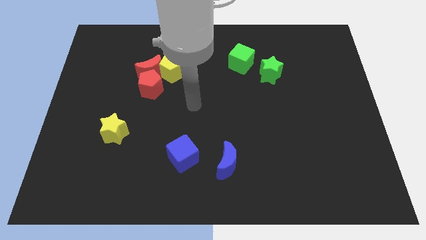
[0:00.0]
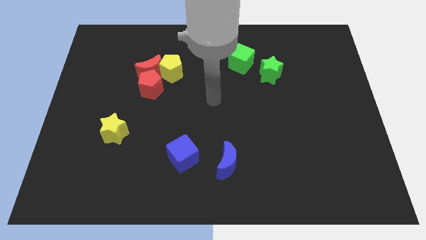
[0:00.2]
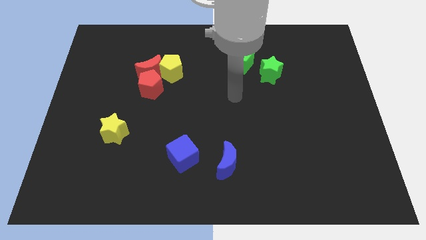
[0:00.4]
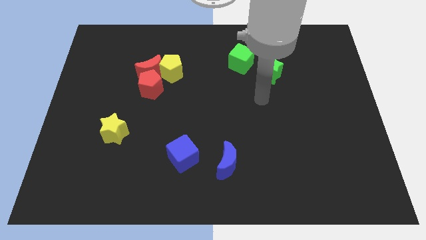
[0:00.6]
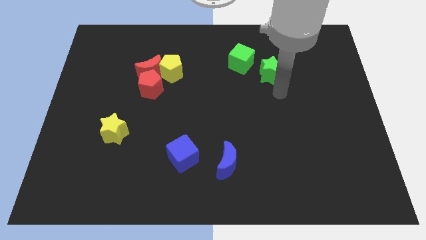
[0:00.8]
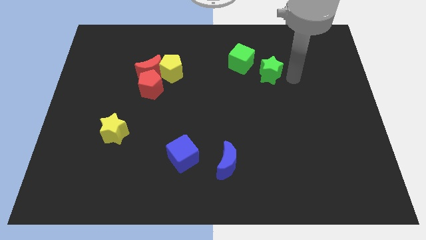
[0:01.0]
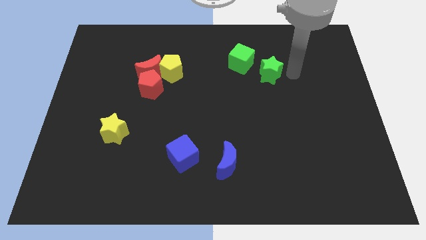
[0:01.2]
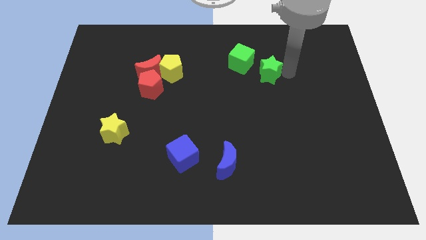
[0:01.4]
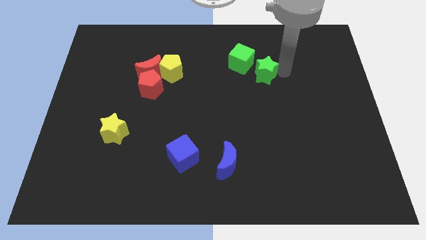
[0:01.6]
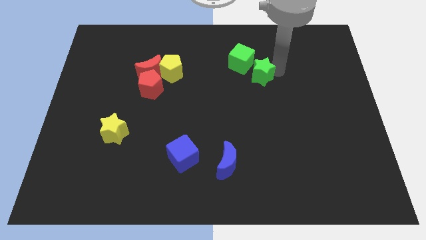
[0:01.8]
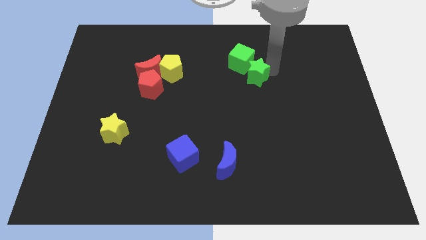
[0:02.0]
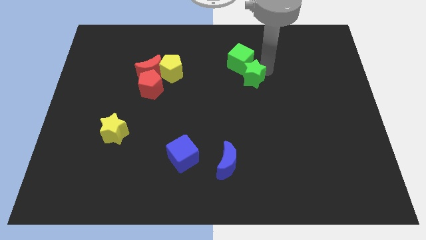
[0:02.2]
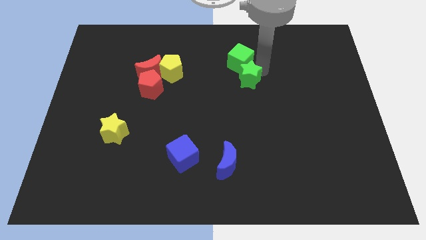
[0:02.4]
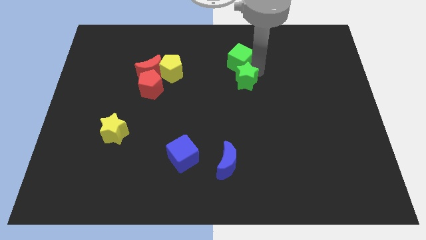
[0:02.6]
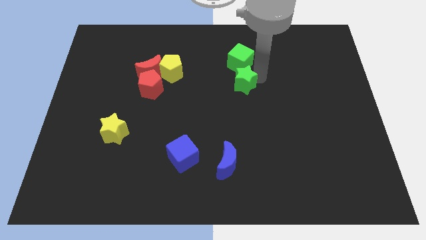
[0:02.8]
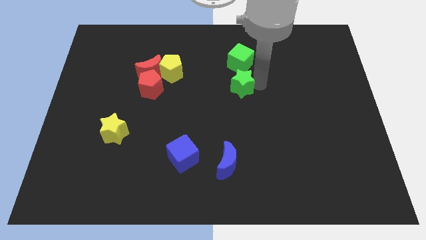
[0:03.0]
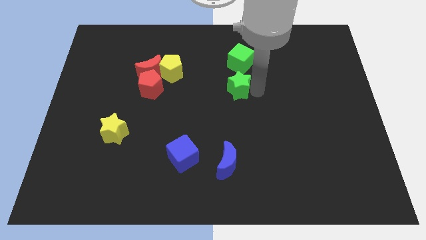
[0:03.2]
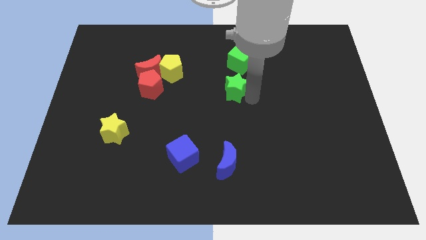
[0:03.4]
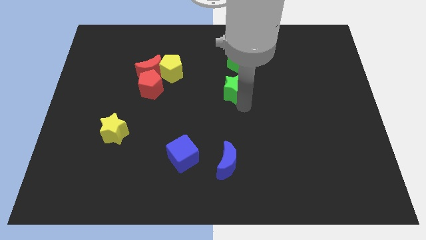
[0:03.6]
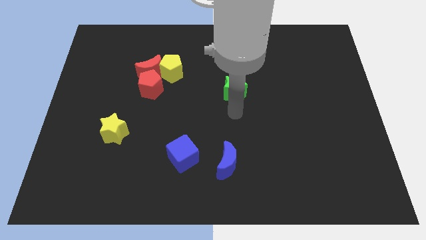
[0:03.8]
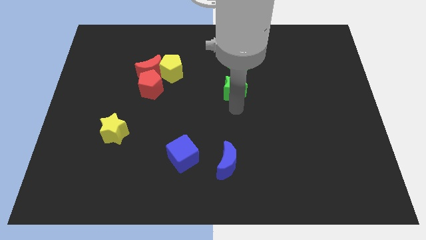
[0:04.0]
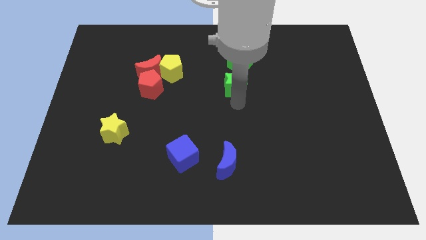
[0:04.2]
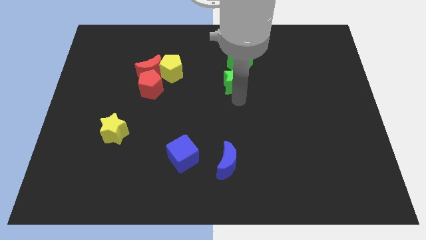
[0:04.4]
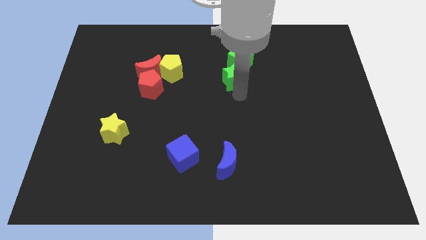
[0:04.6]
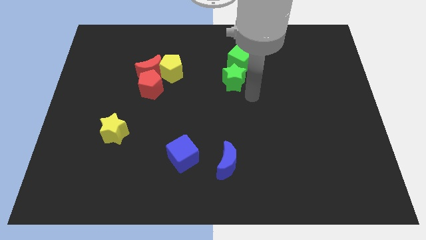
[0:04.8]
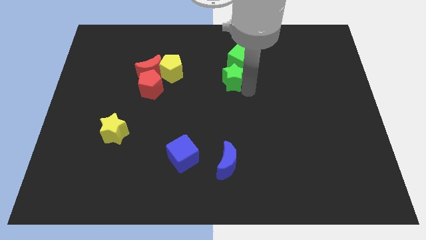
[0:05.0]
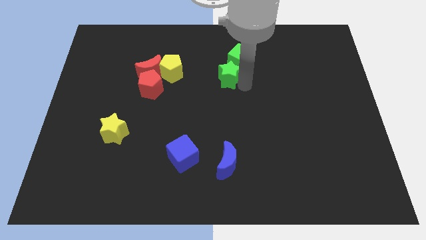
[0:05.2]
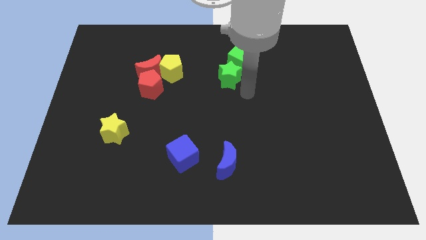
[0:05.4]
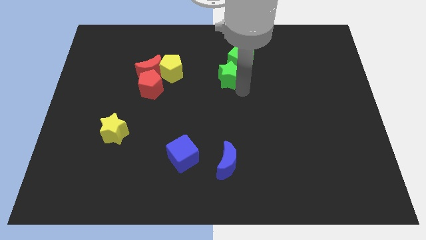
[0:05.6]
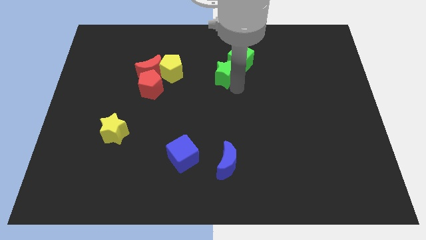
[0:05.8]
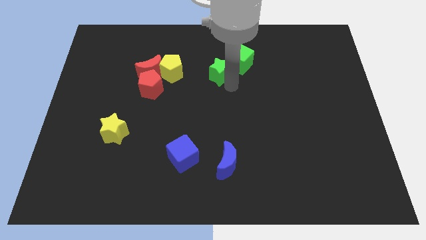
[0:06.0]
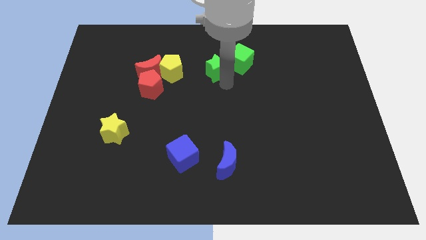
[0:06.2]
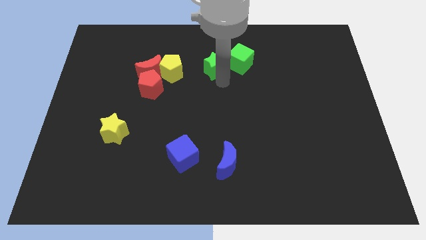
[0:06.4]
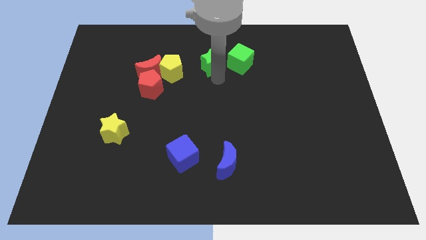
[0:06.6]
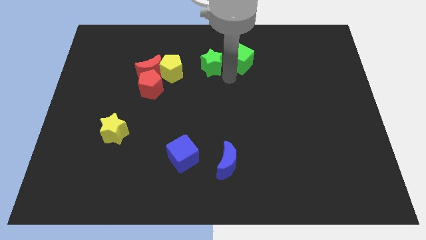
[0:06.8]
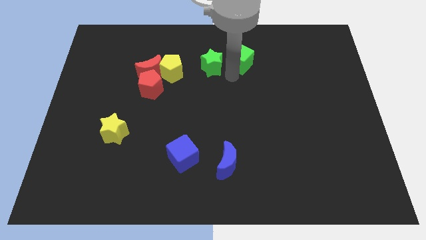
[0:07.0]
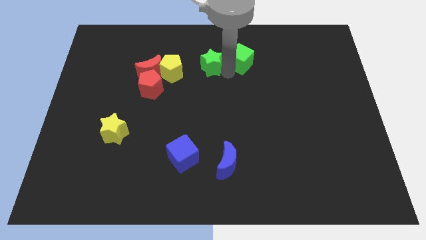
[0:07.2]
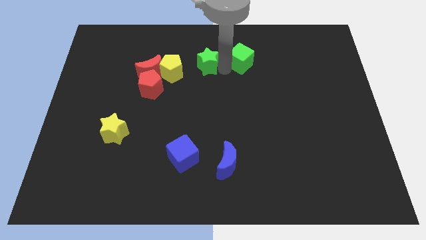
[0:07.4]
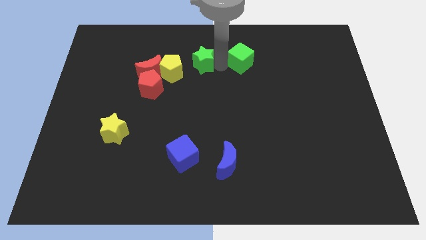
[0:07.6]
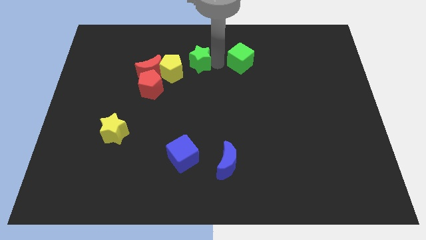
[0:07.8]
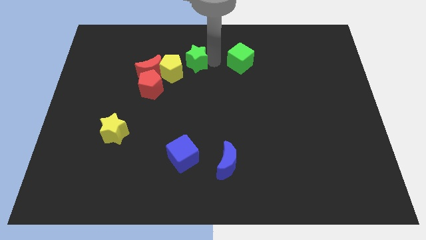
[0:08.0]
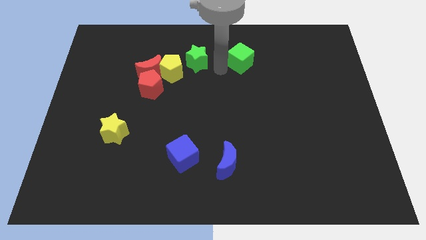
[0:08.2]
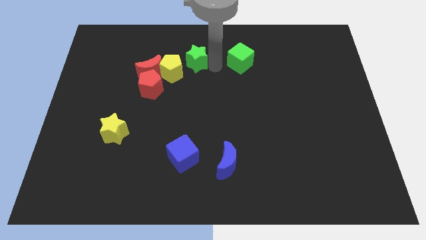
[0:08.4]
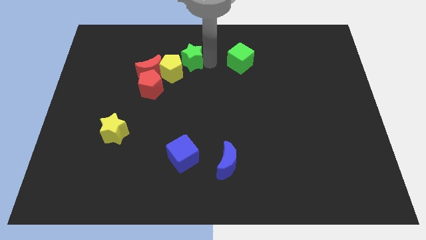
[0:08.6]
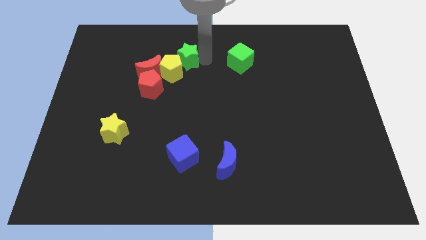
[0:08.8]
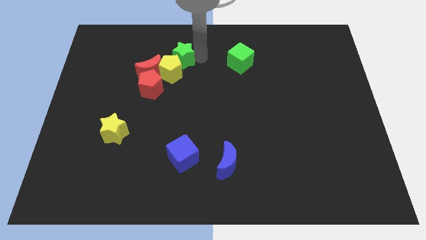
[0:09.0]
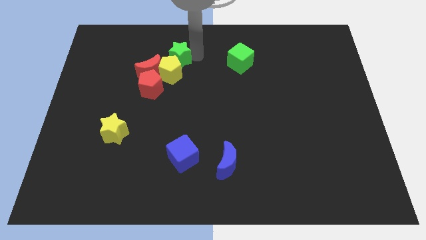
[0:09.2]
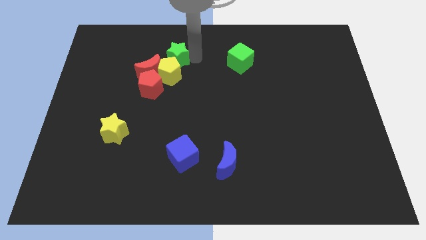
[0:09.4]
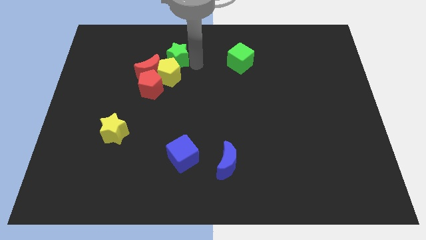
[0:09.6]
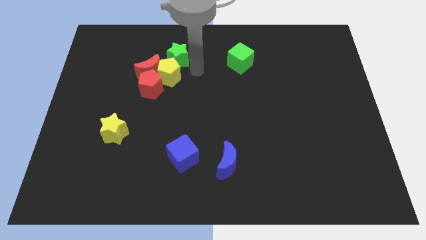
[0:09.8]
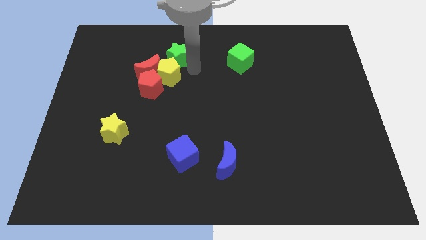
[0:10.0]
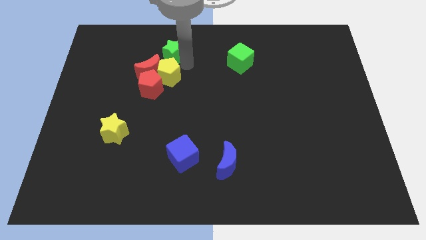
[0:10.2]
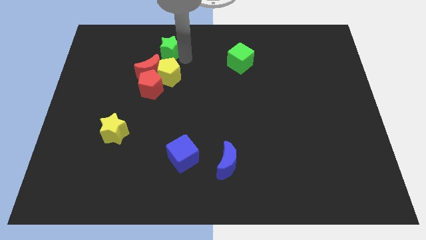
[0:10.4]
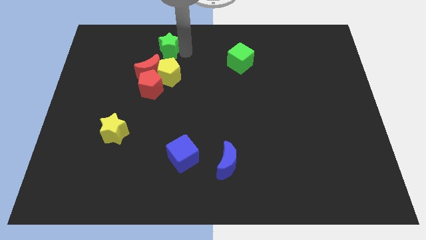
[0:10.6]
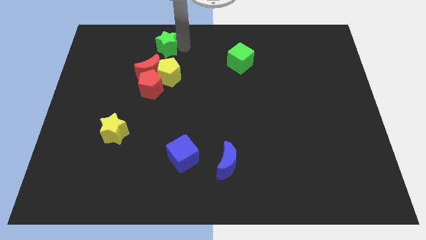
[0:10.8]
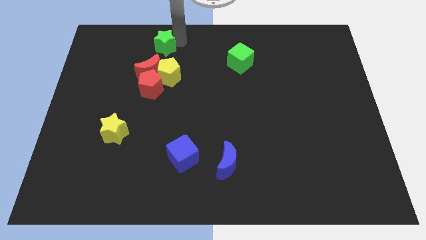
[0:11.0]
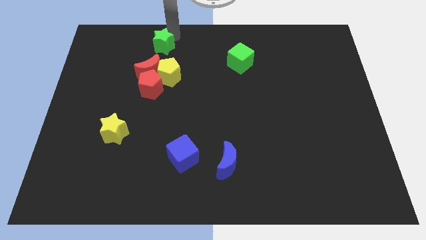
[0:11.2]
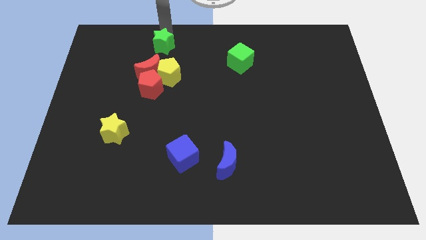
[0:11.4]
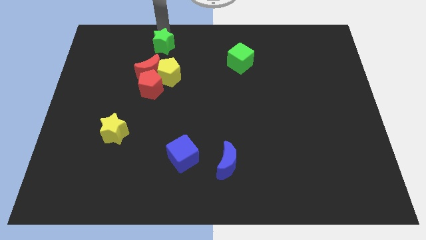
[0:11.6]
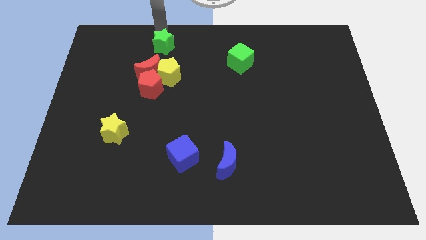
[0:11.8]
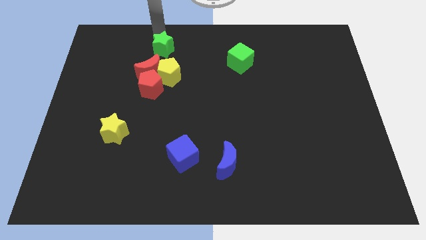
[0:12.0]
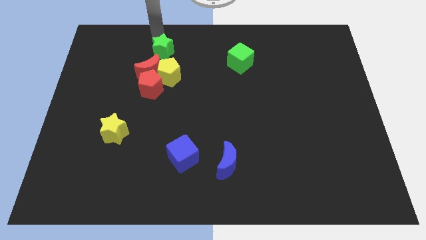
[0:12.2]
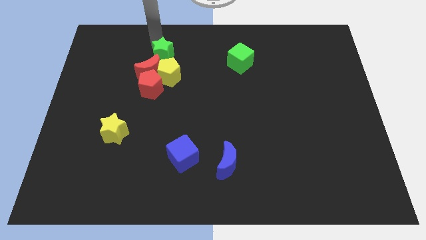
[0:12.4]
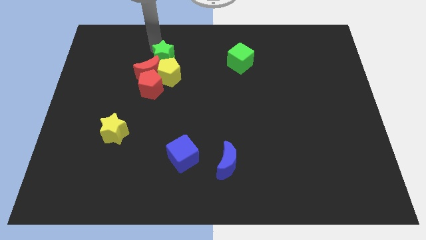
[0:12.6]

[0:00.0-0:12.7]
push the green star close to the red moon

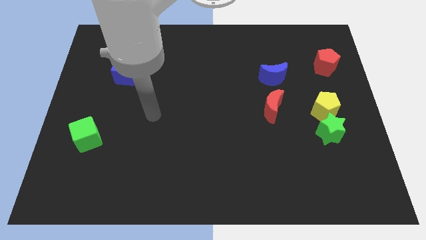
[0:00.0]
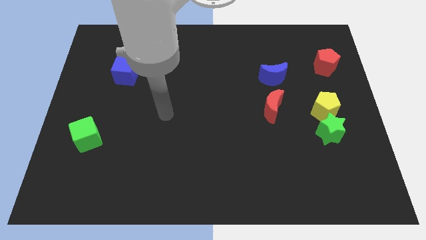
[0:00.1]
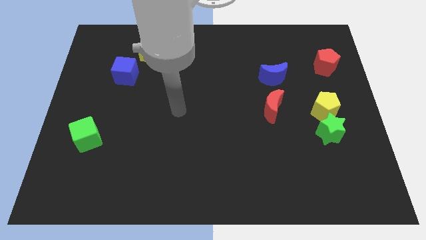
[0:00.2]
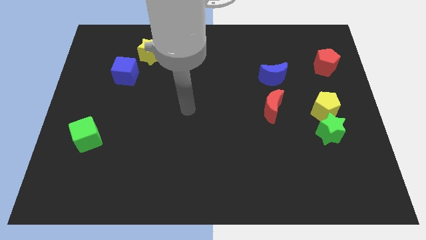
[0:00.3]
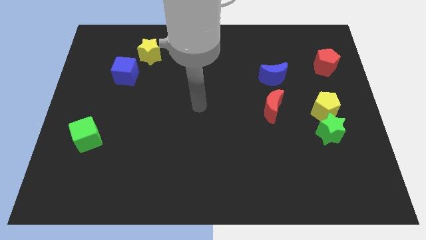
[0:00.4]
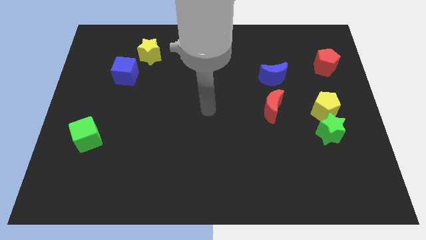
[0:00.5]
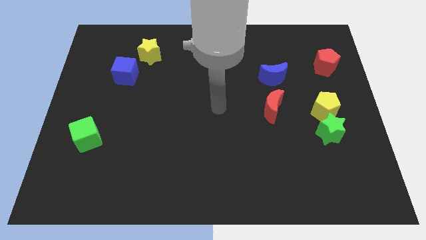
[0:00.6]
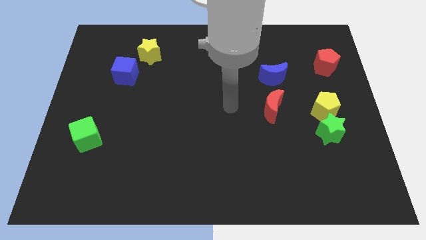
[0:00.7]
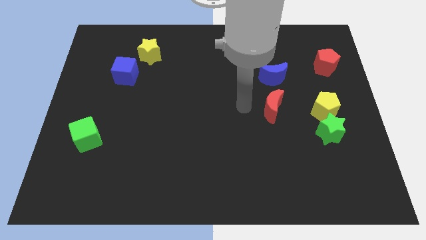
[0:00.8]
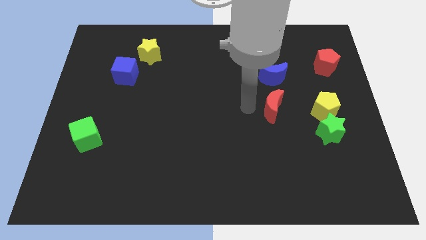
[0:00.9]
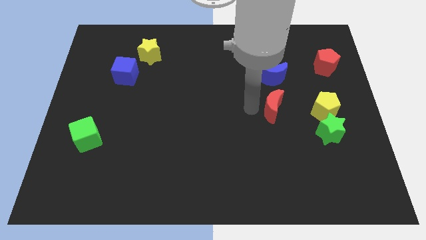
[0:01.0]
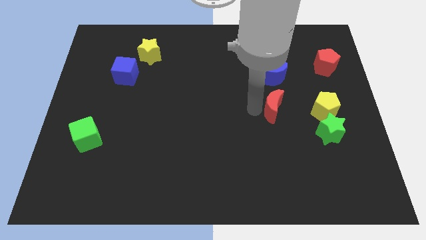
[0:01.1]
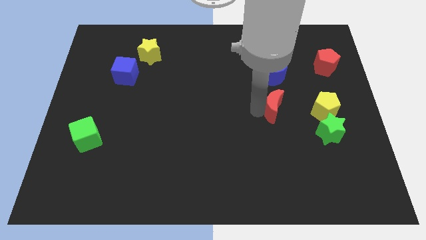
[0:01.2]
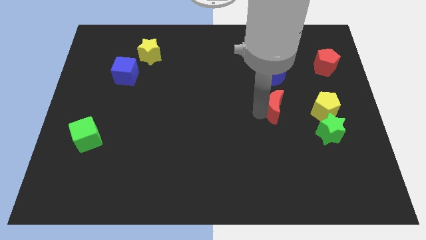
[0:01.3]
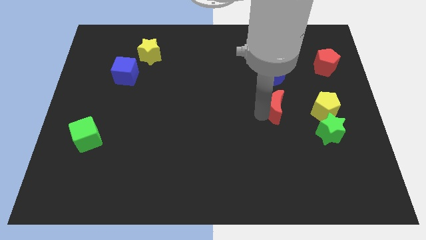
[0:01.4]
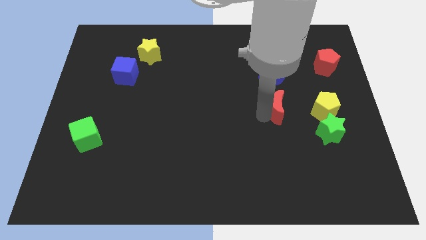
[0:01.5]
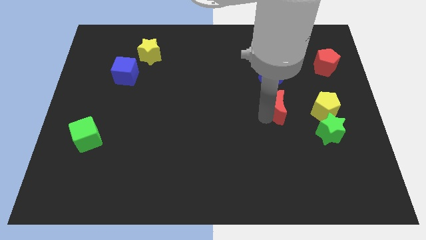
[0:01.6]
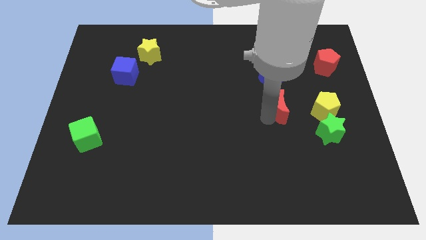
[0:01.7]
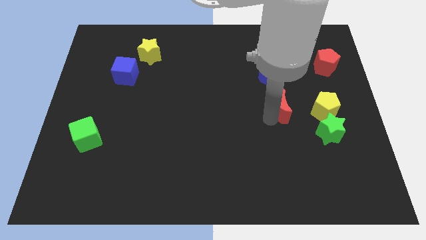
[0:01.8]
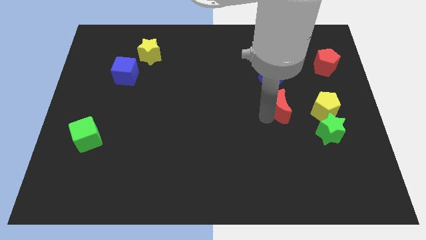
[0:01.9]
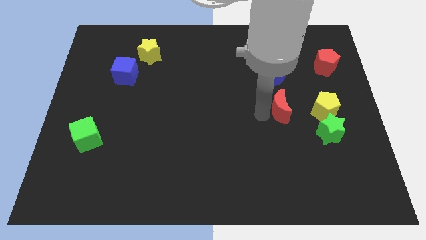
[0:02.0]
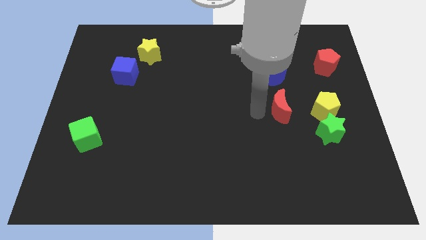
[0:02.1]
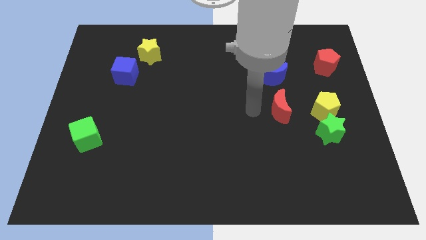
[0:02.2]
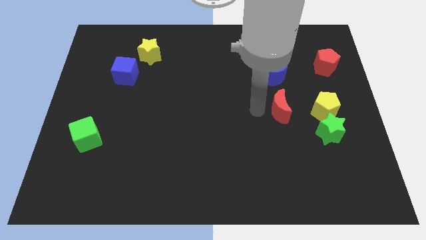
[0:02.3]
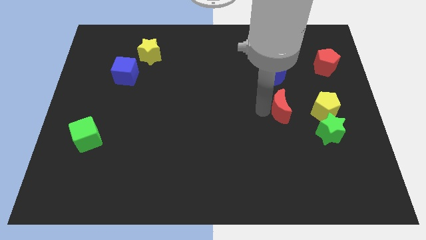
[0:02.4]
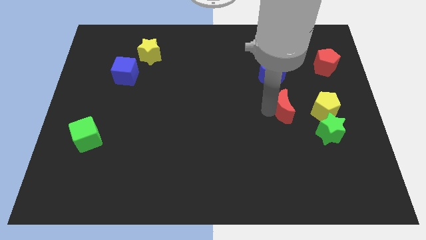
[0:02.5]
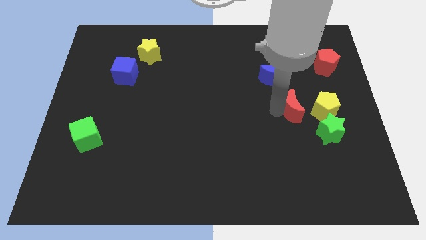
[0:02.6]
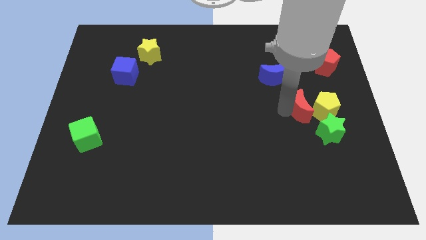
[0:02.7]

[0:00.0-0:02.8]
put the red moon close to the yellow pentagon
